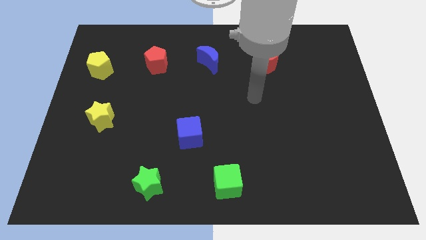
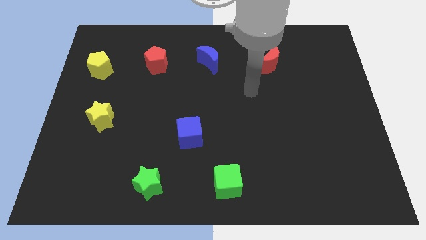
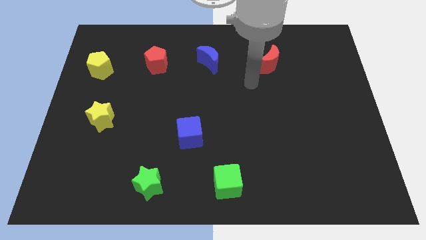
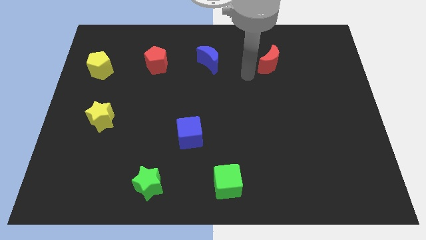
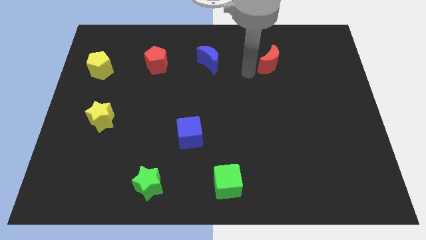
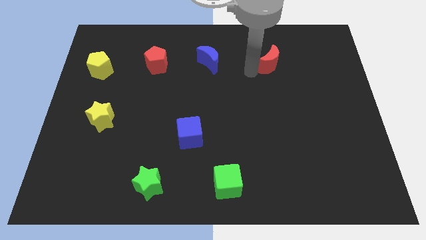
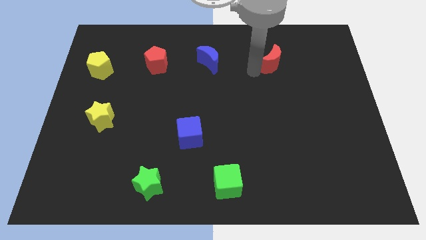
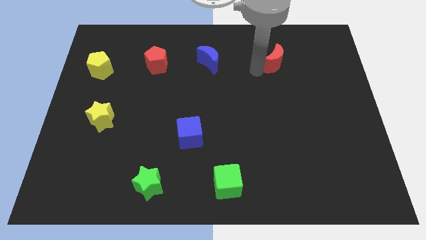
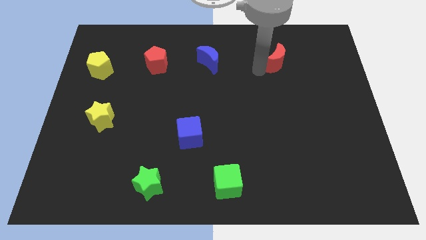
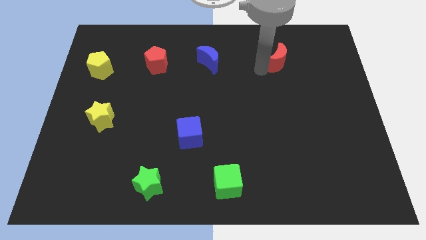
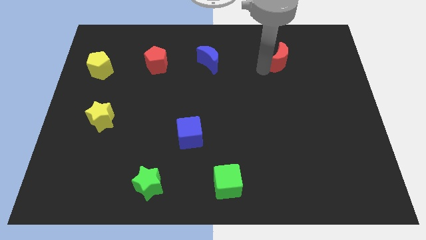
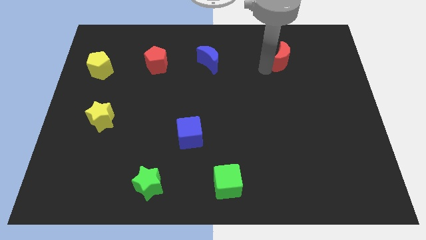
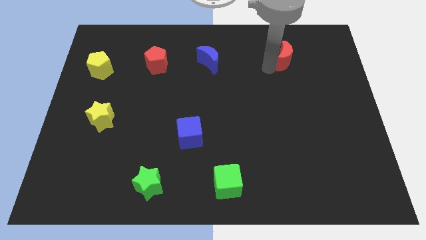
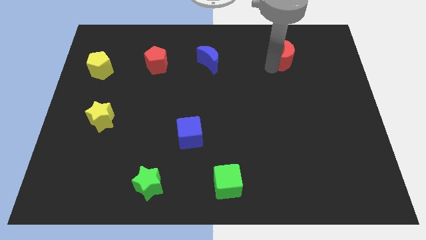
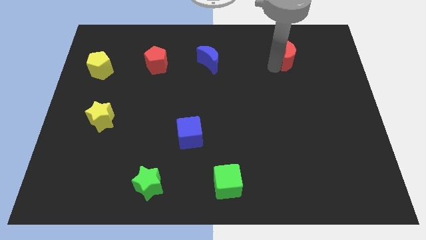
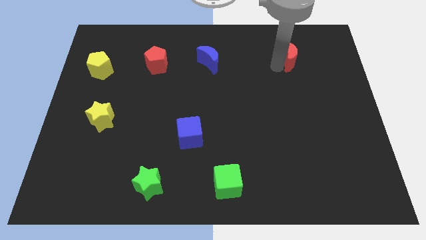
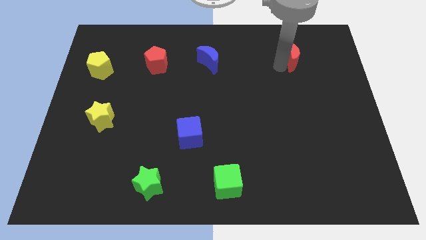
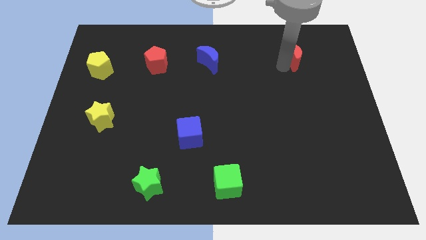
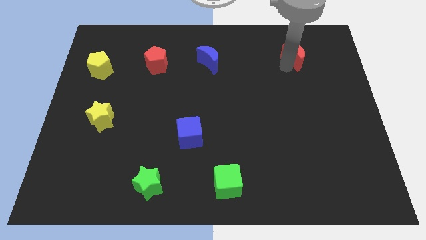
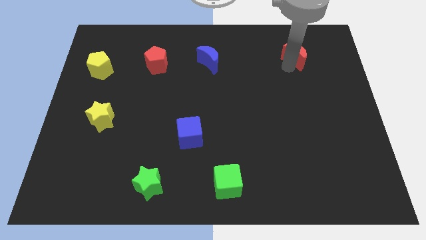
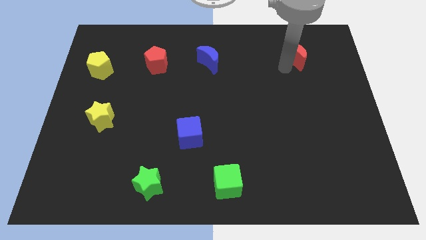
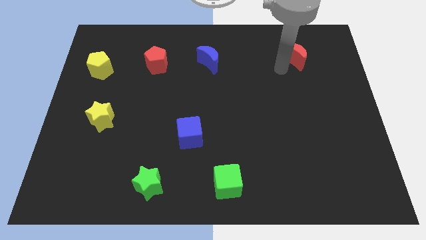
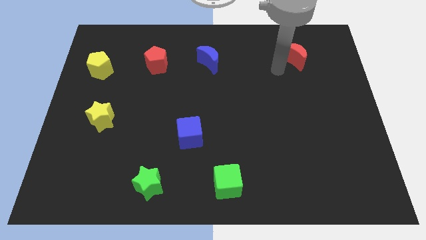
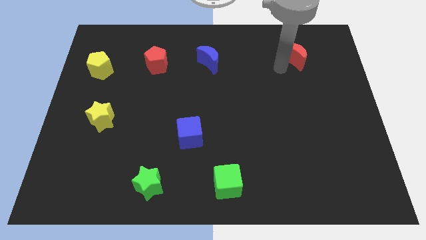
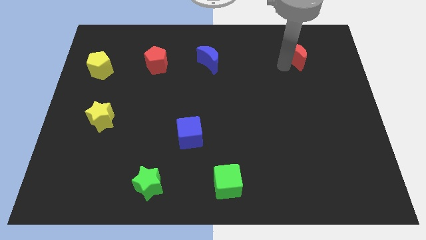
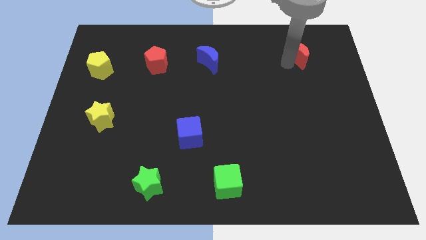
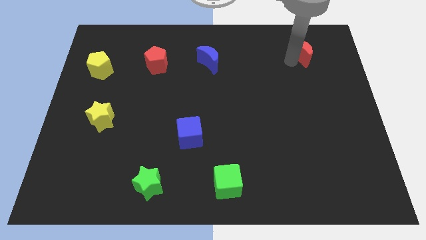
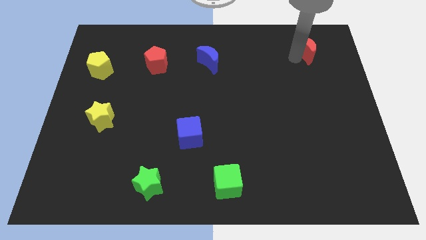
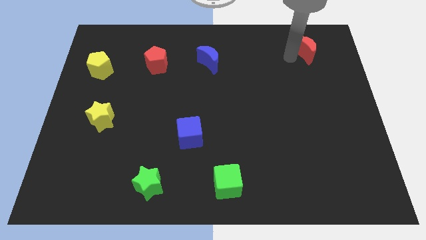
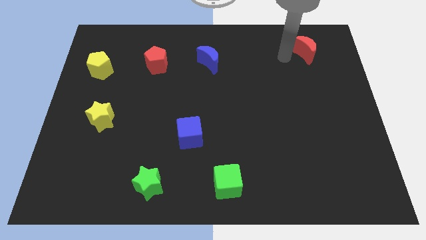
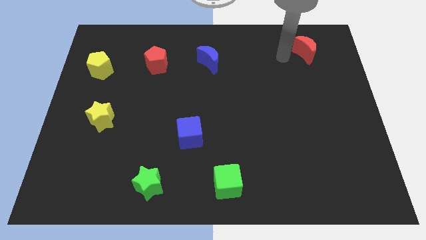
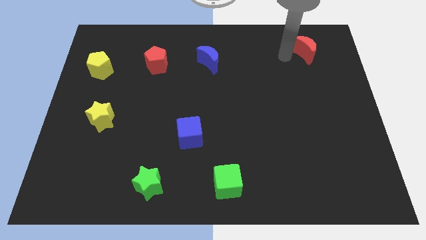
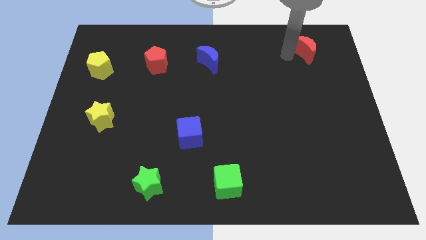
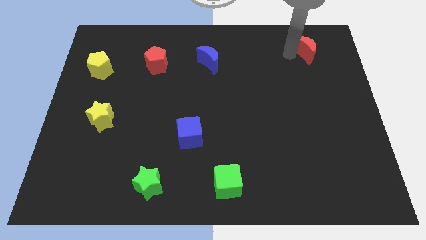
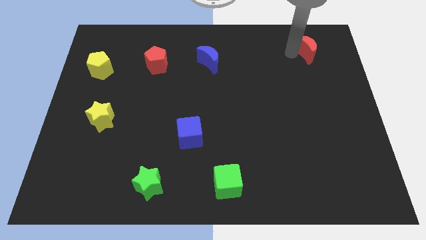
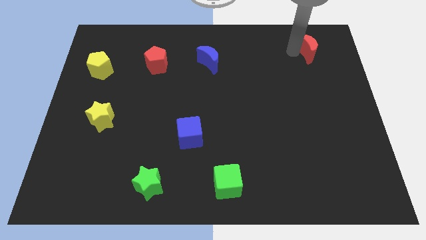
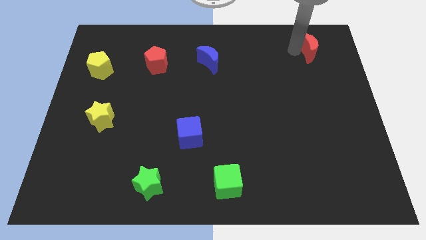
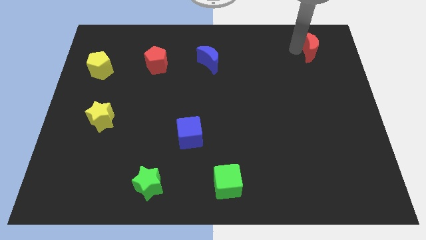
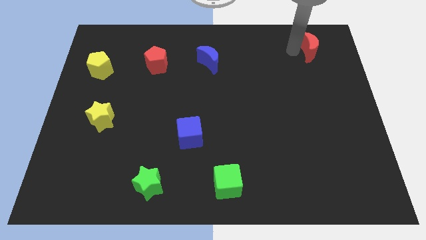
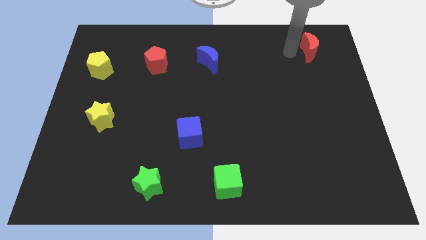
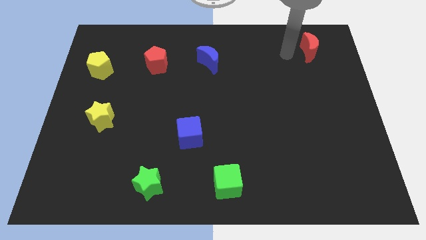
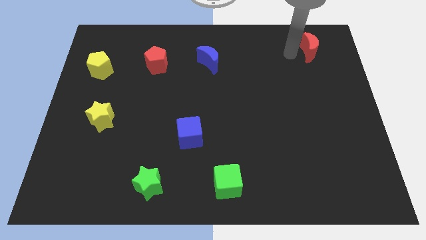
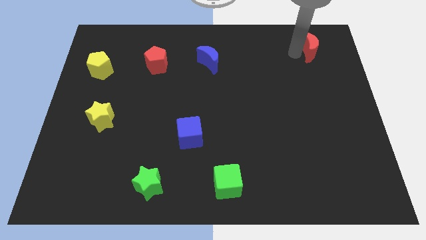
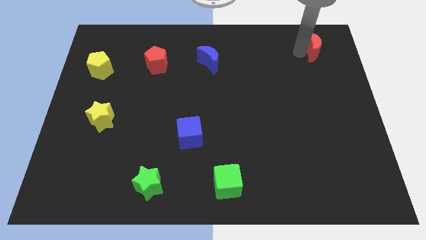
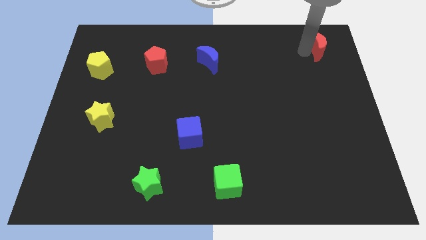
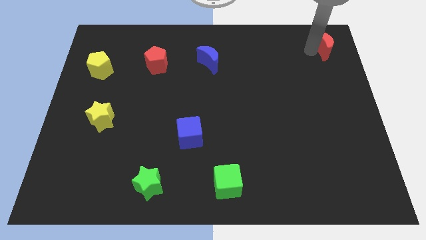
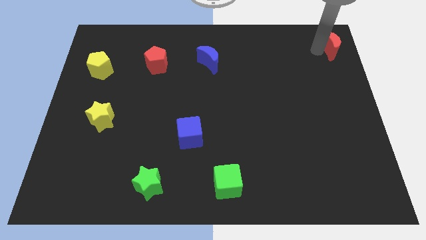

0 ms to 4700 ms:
slide the red moon to the upper right corner

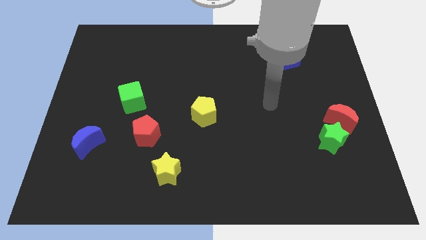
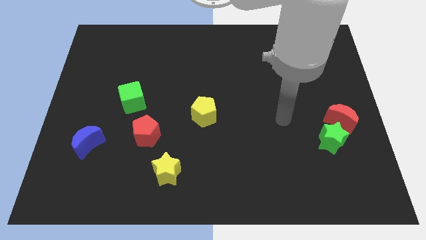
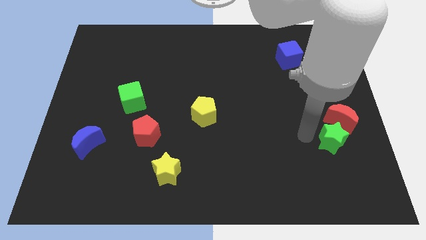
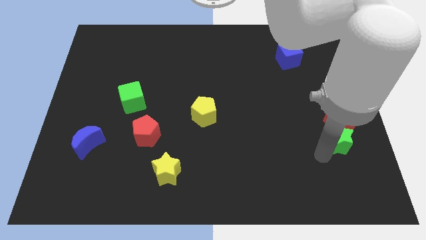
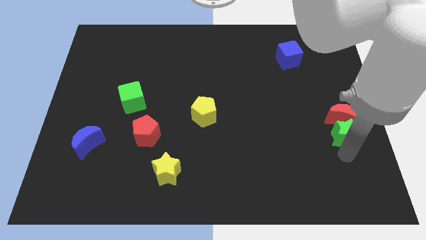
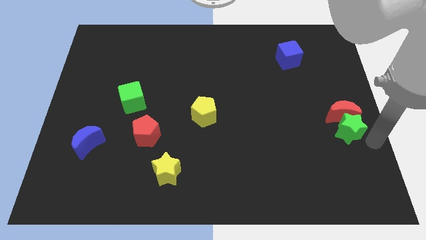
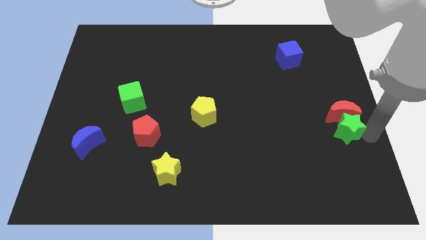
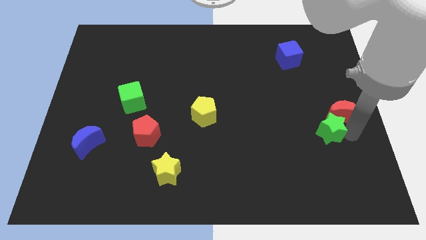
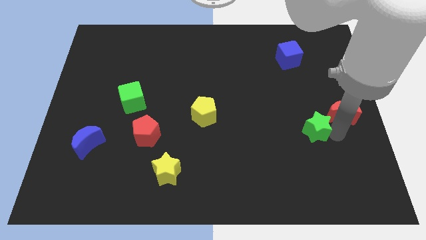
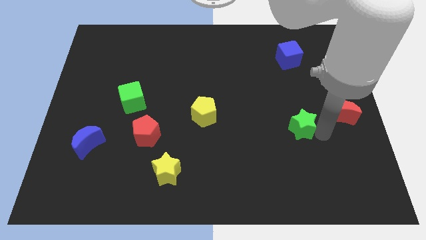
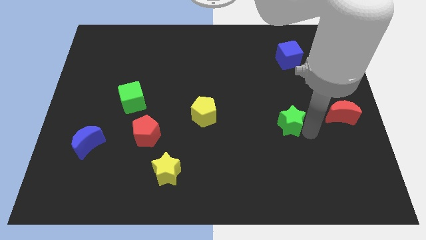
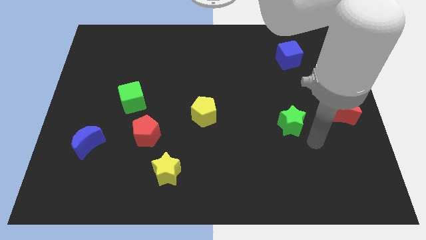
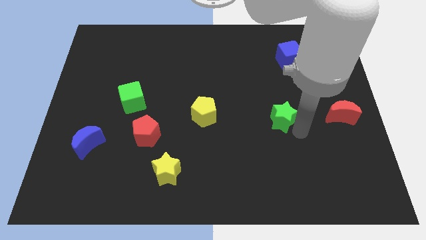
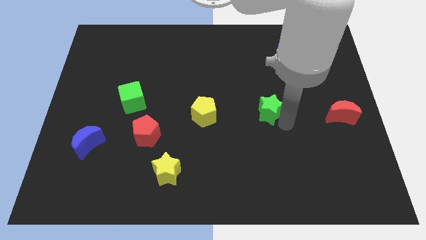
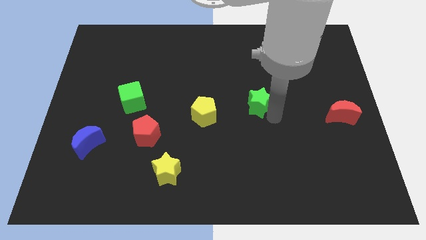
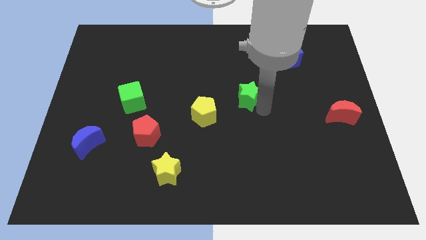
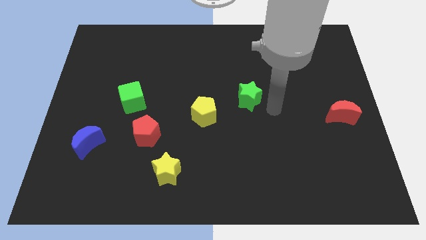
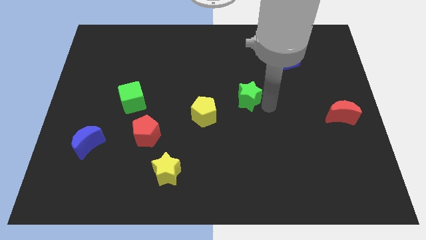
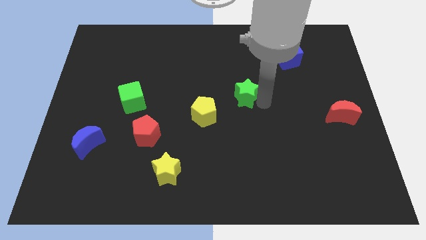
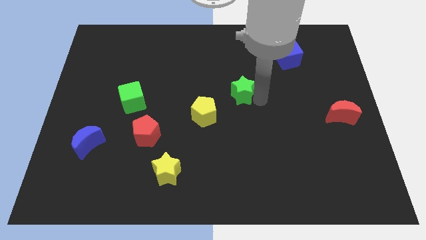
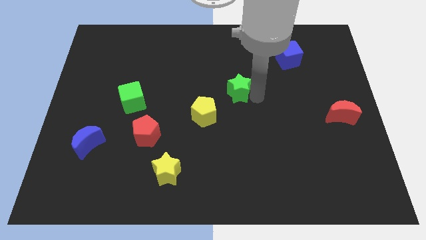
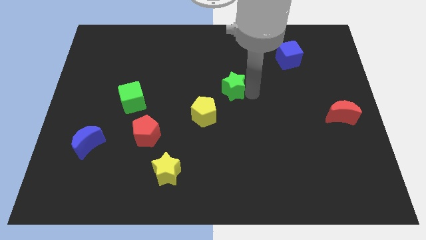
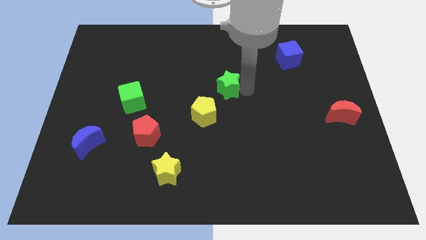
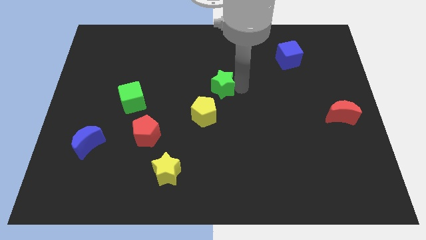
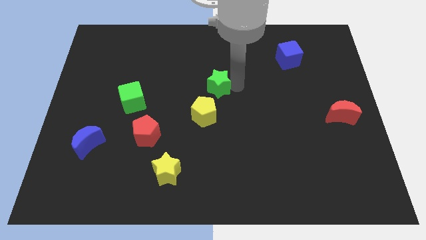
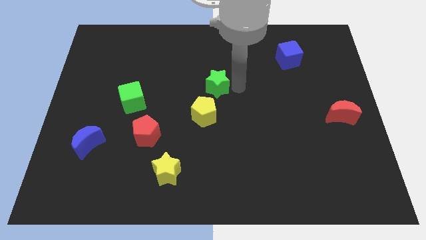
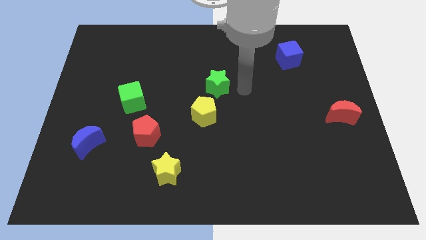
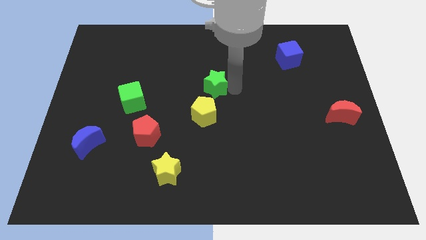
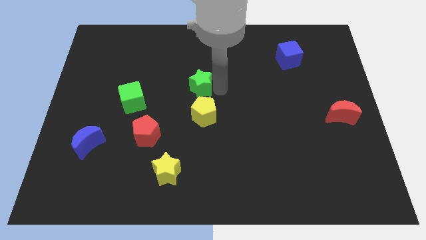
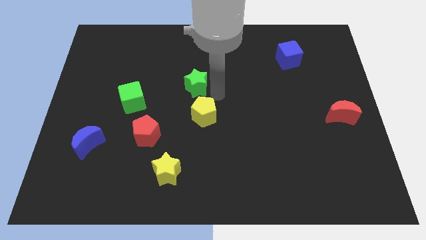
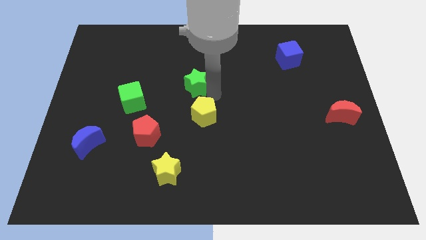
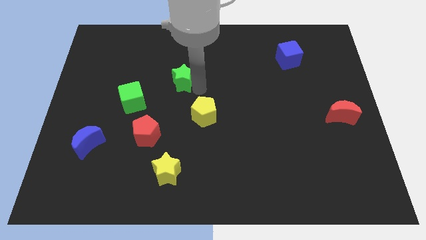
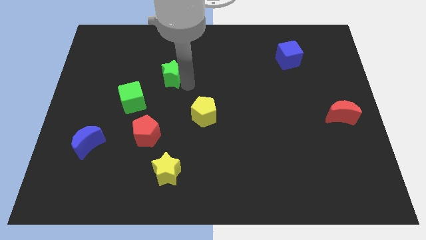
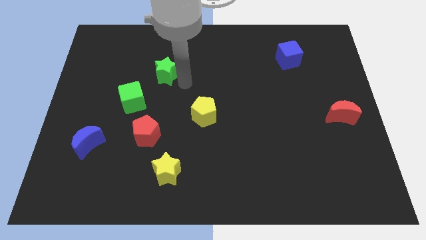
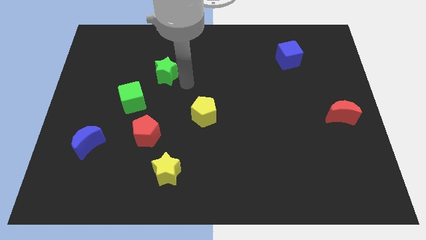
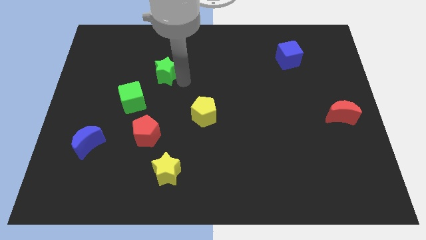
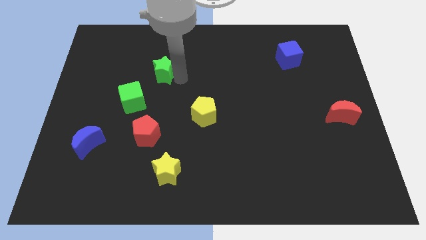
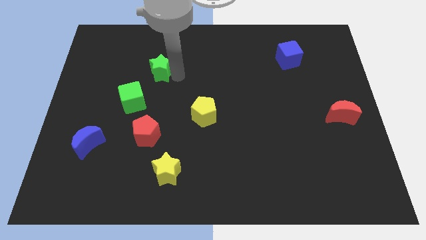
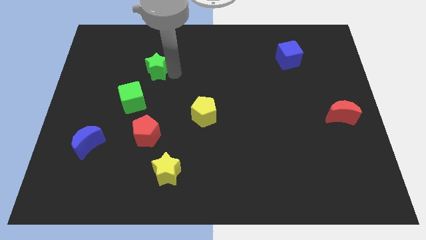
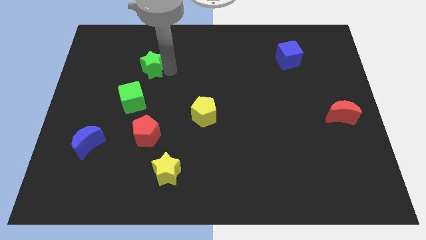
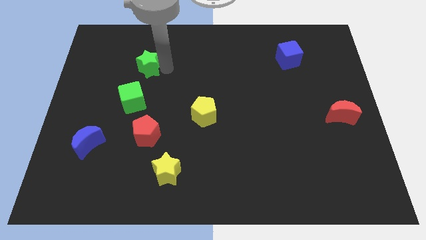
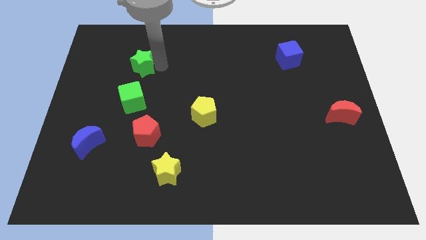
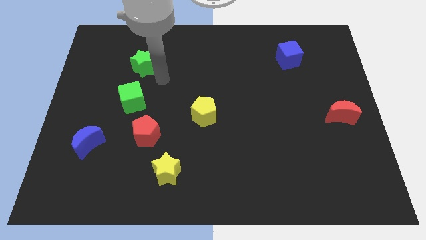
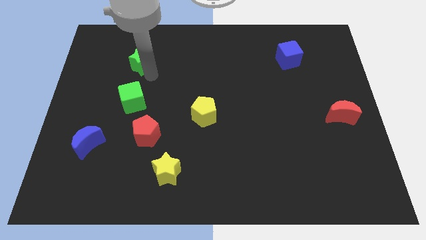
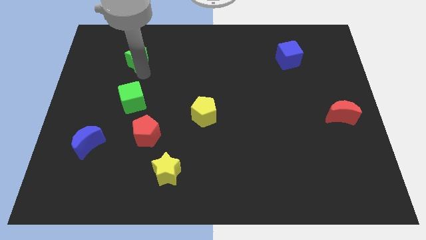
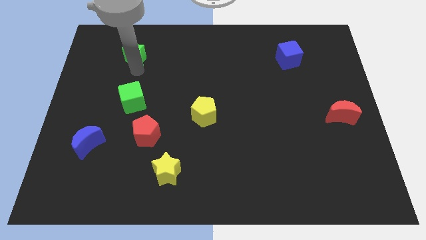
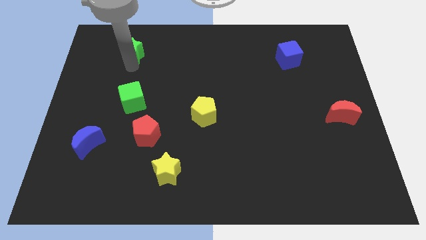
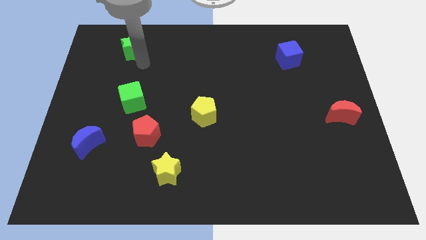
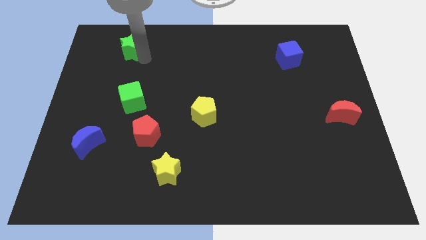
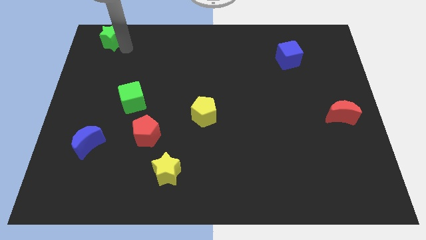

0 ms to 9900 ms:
slide the green star to the top left
